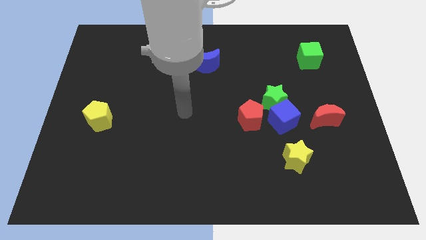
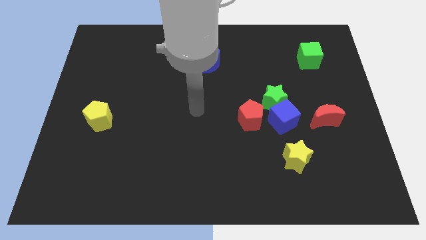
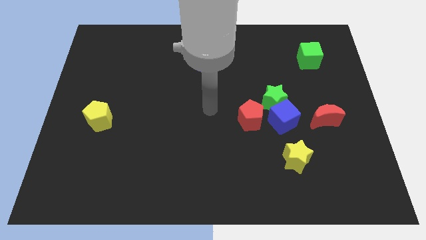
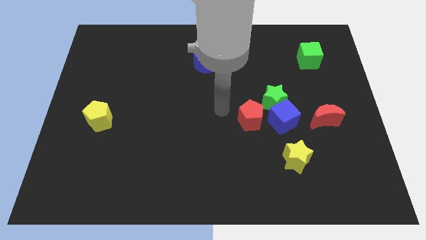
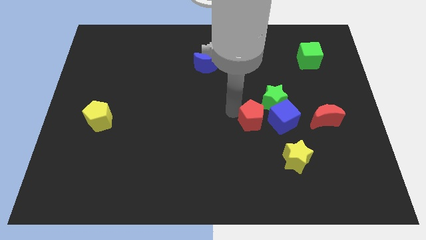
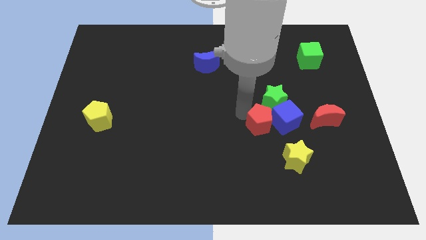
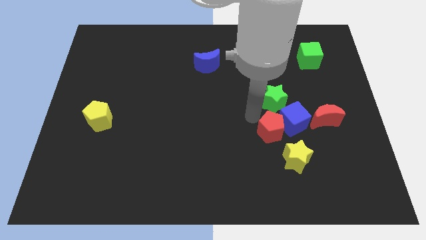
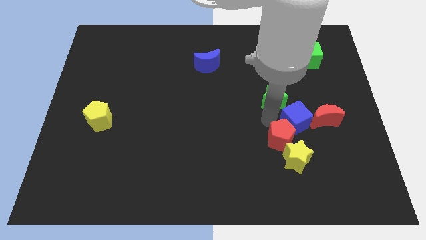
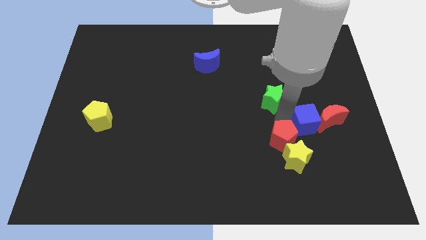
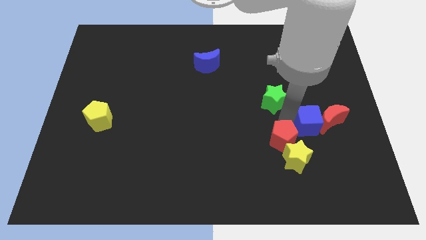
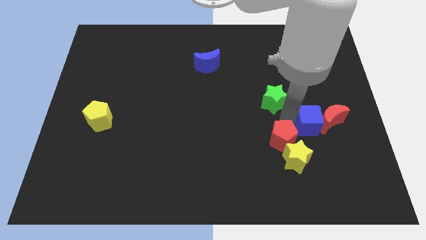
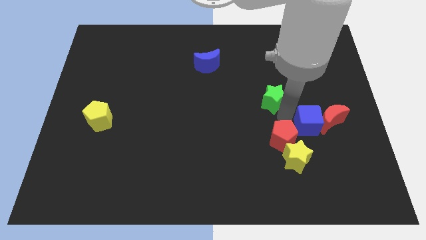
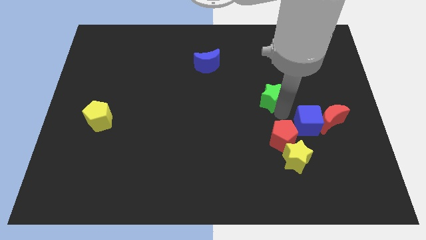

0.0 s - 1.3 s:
pull the green star apart from the blue cube and red pentagon

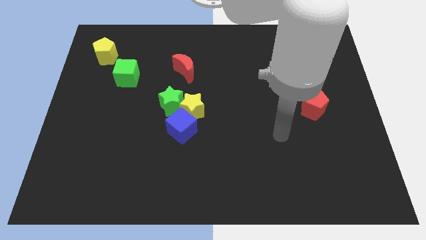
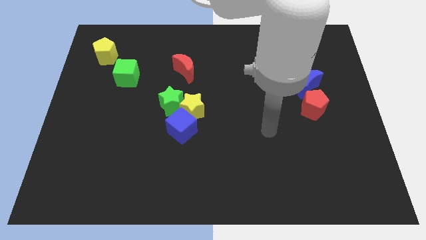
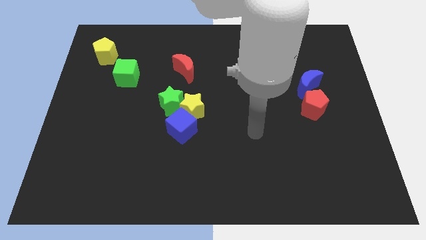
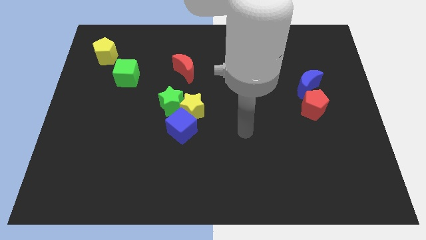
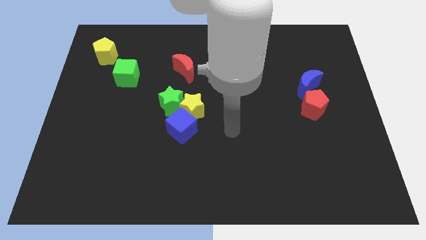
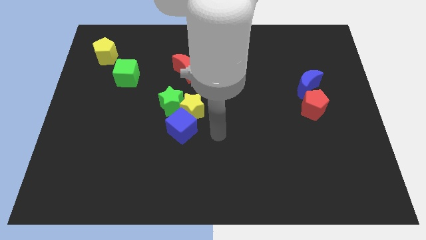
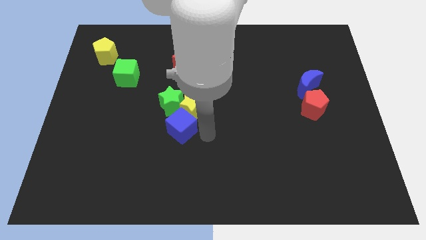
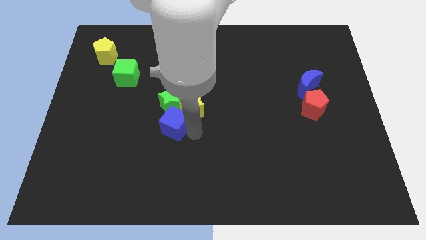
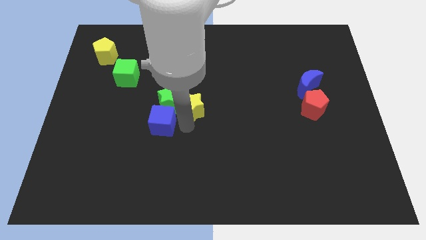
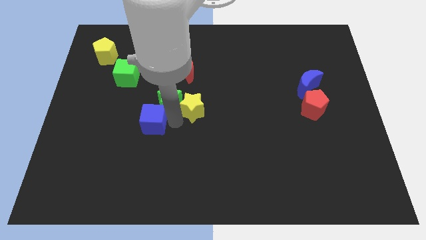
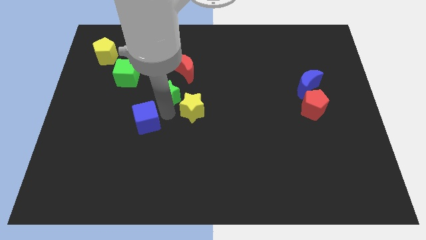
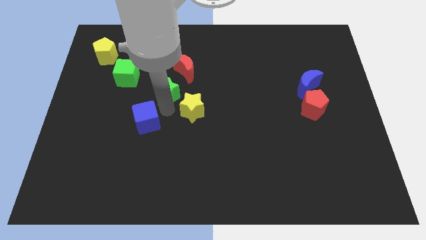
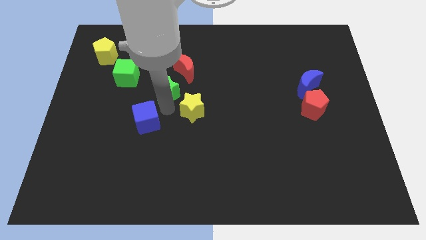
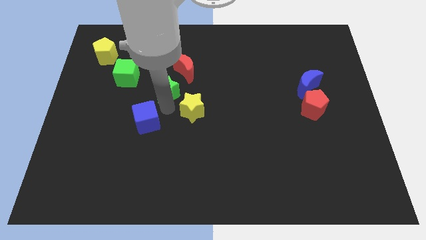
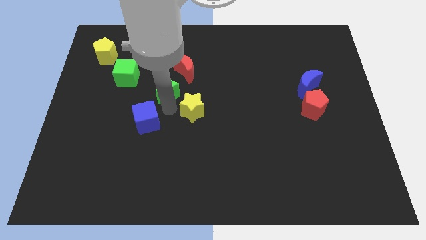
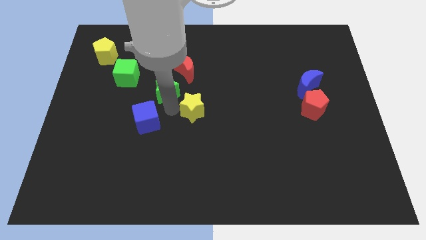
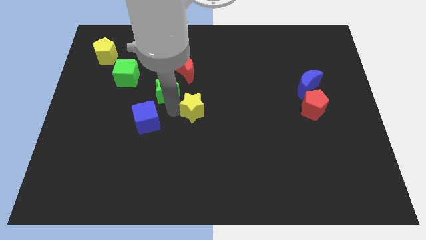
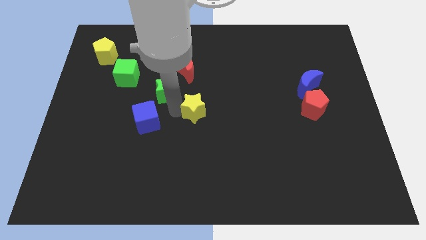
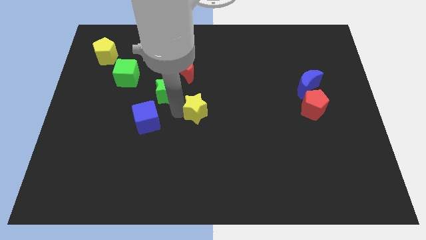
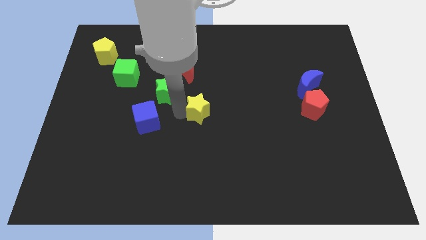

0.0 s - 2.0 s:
pull the yellow star apart from the green star and blue cube

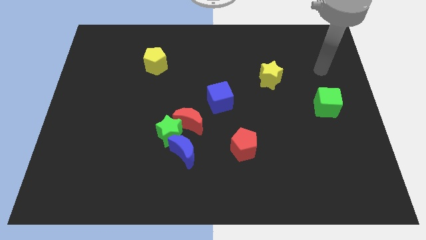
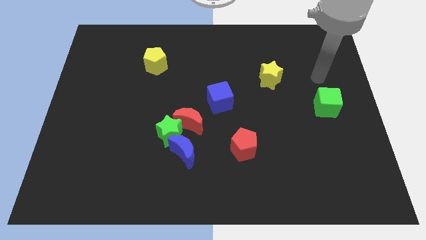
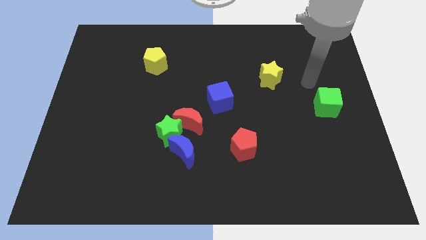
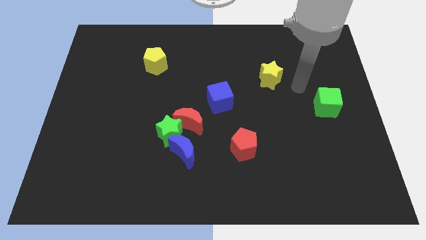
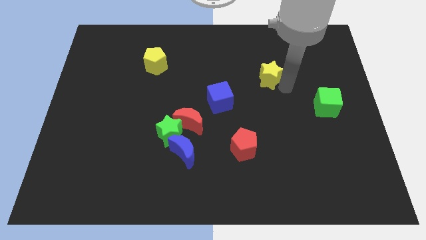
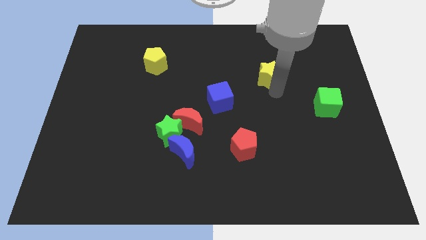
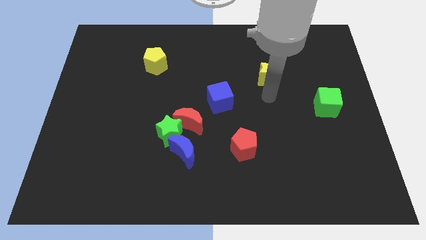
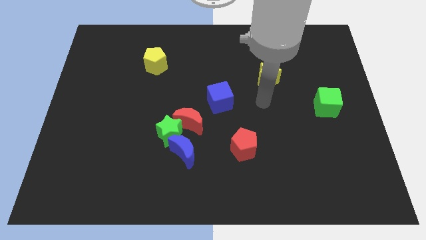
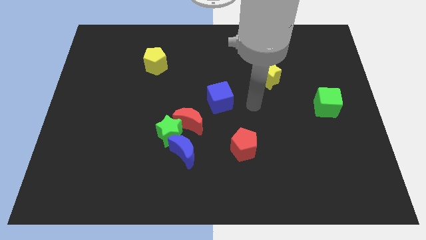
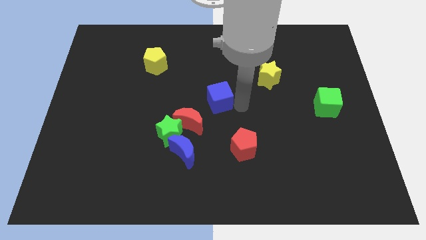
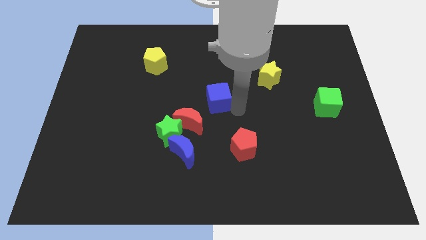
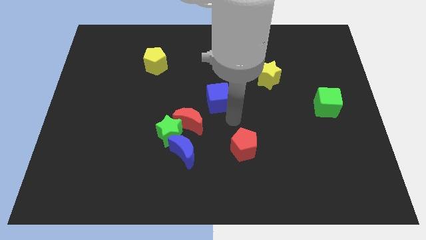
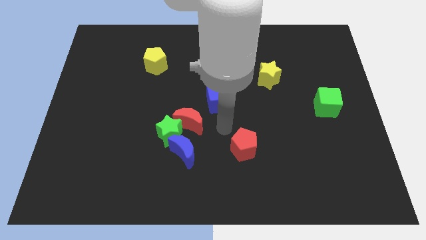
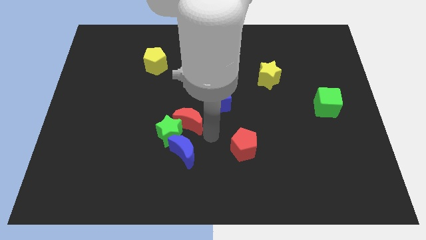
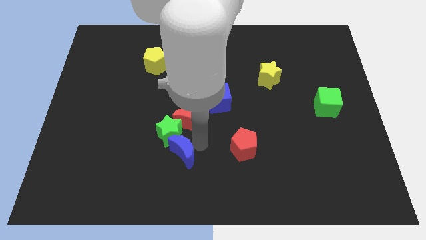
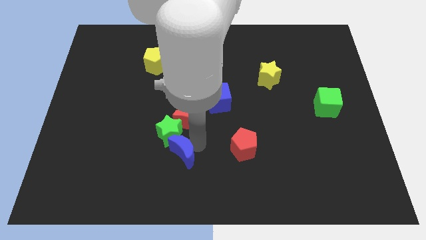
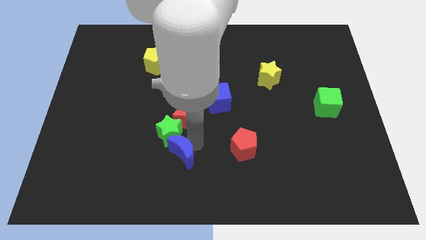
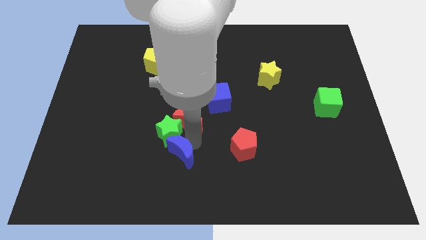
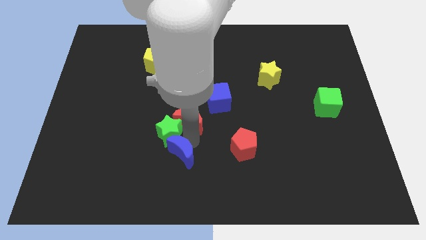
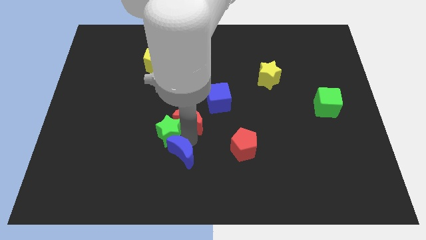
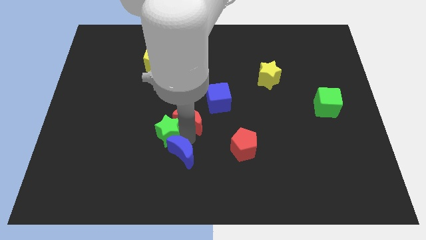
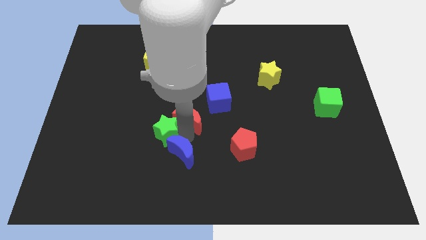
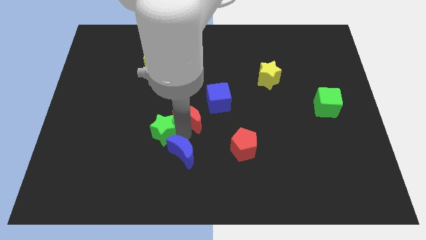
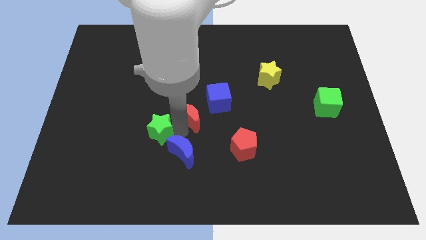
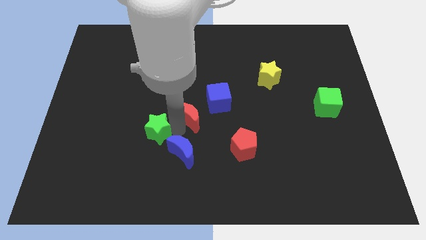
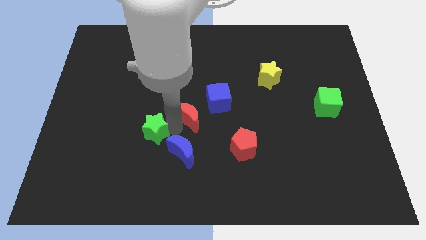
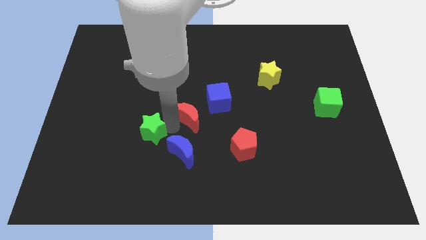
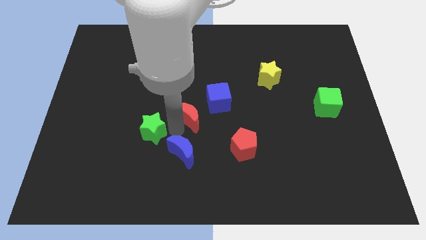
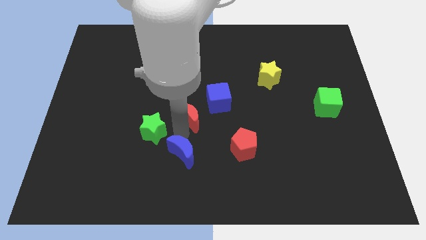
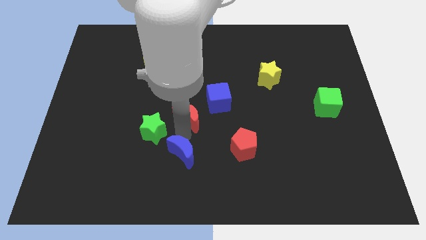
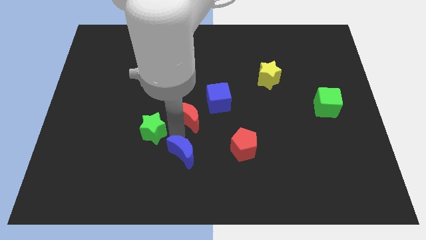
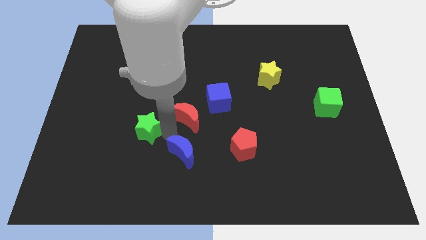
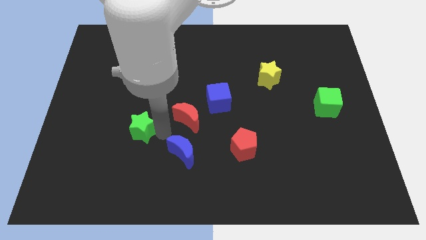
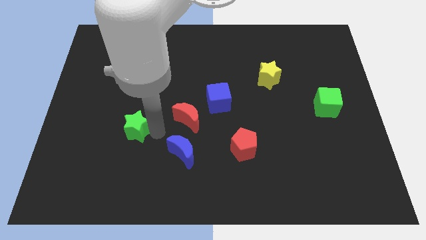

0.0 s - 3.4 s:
move the green star away from the red moon and blue moon

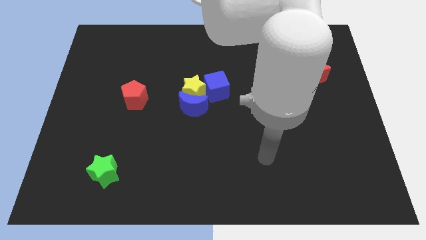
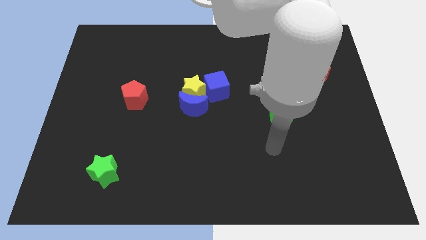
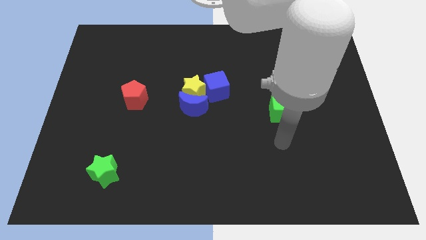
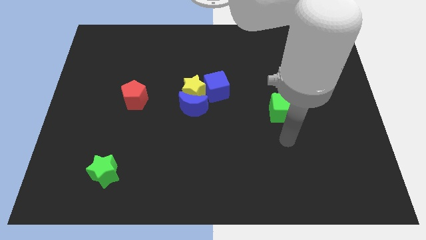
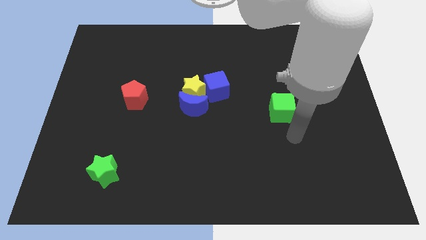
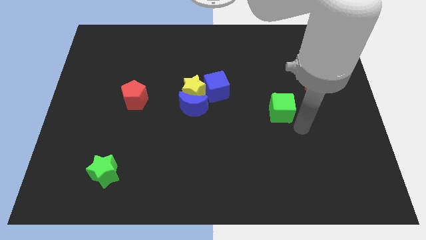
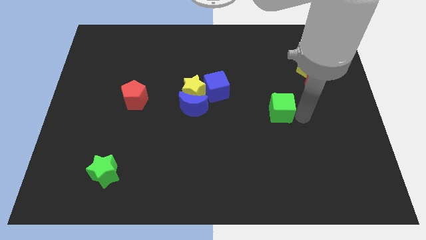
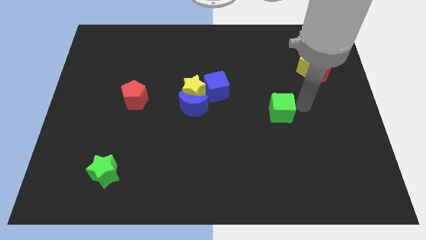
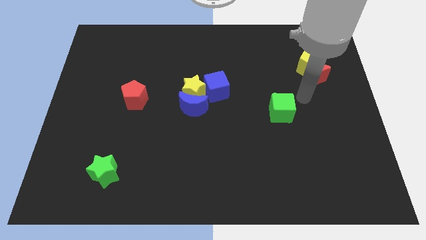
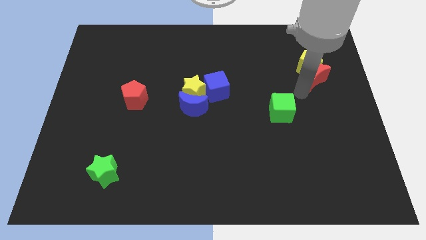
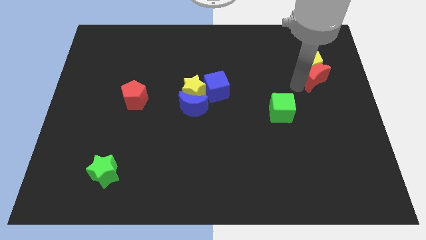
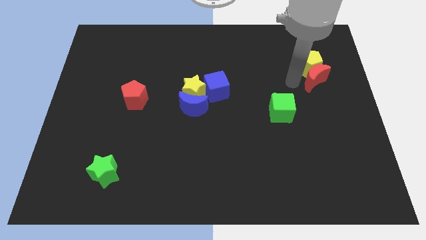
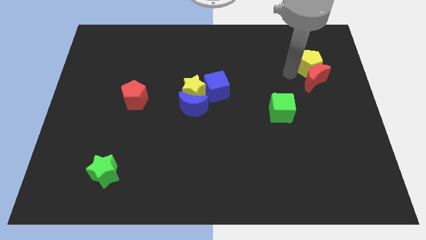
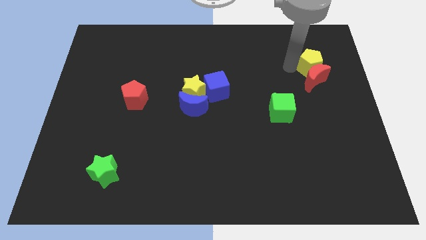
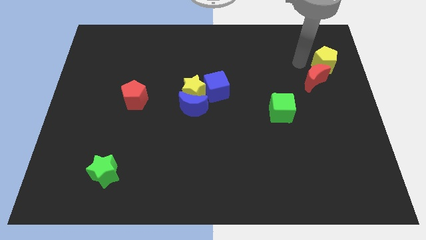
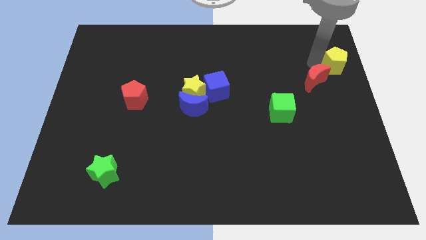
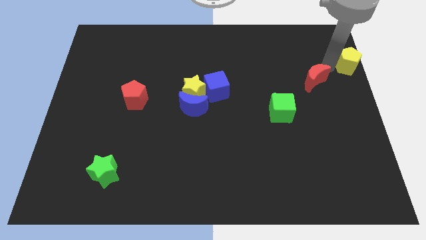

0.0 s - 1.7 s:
move the red moon away from the yellow pentagon

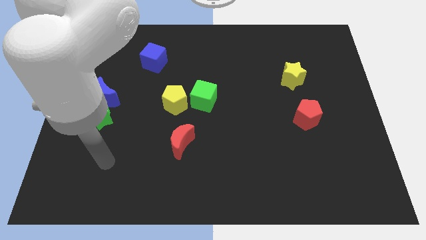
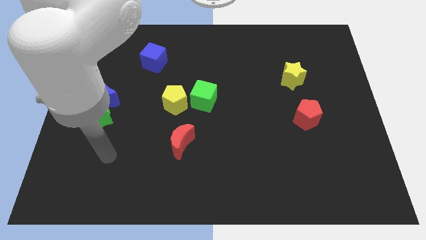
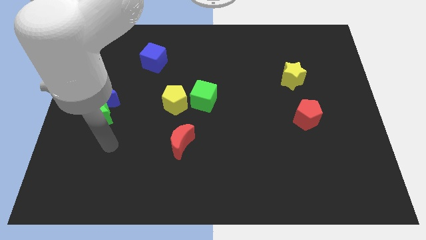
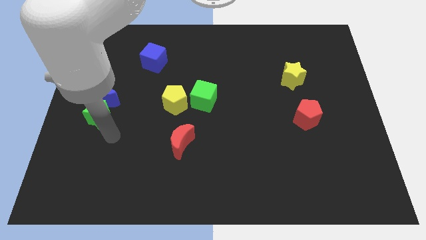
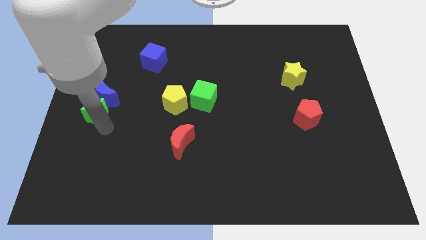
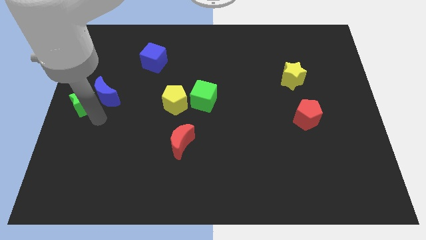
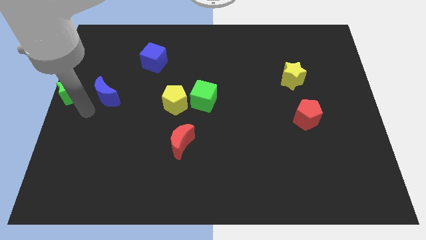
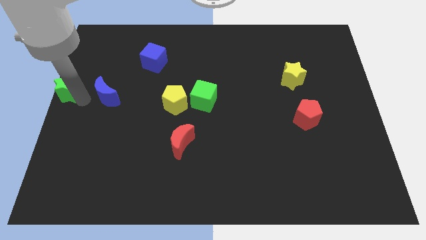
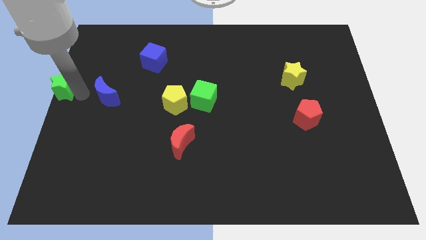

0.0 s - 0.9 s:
move the blue moon away from the green star
